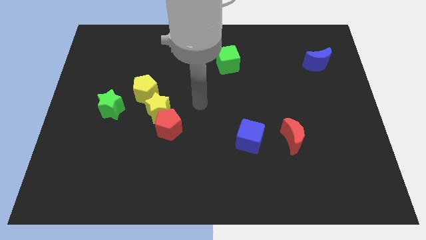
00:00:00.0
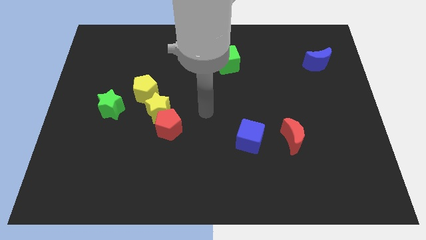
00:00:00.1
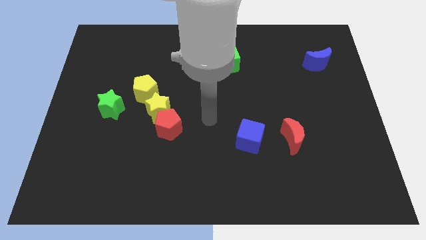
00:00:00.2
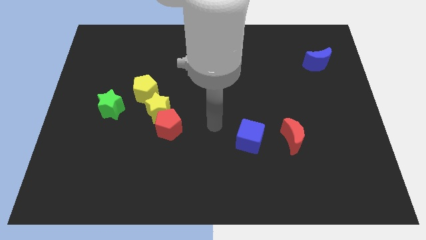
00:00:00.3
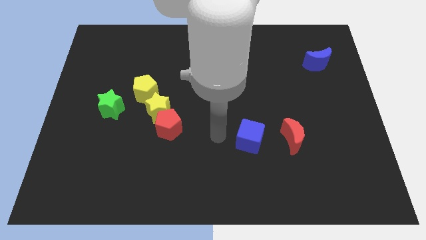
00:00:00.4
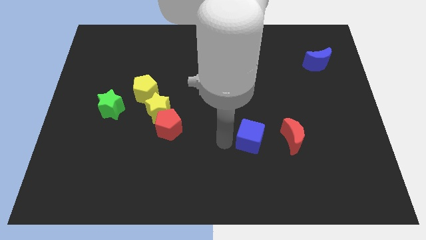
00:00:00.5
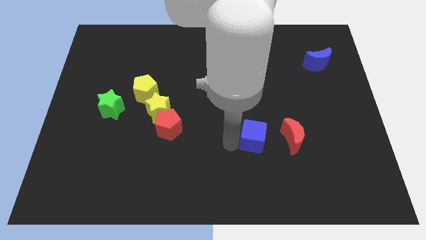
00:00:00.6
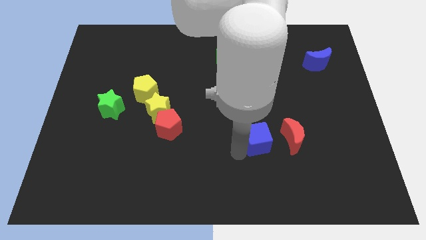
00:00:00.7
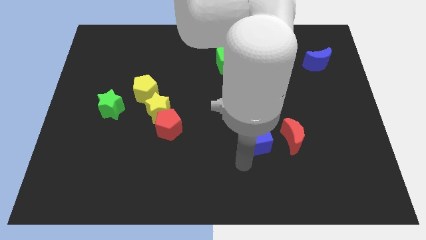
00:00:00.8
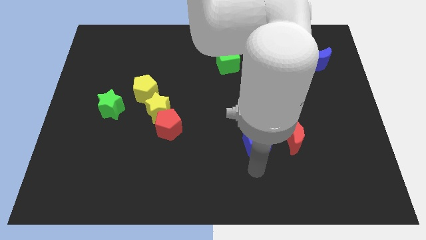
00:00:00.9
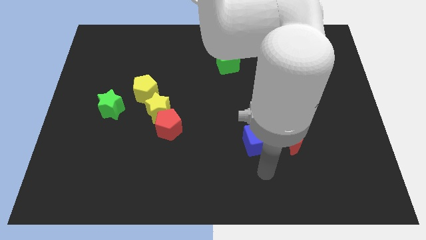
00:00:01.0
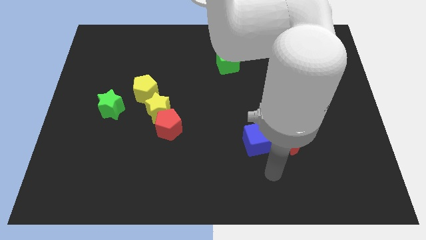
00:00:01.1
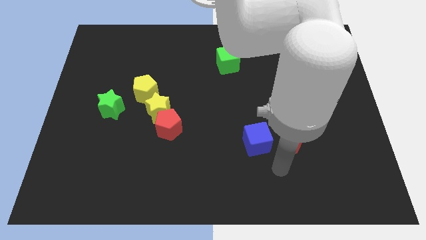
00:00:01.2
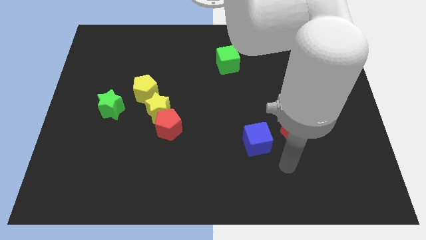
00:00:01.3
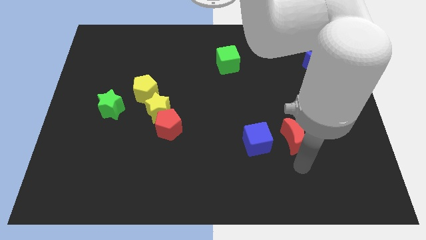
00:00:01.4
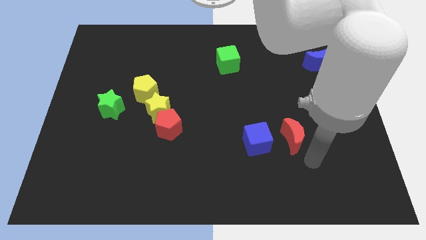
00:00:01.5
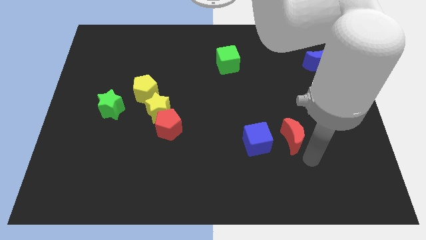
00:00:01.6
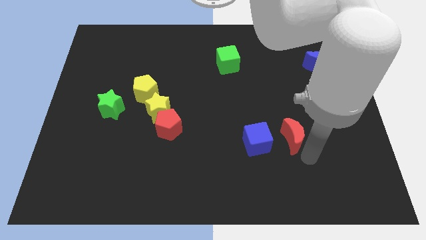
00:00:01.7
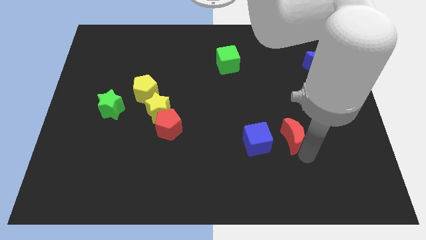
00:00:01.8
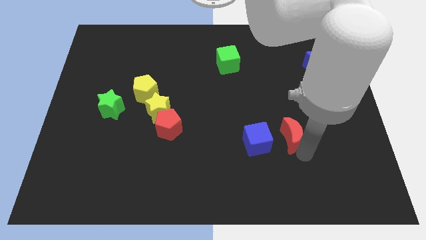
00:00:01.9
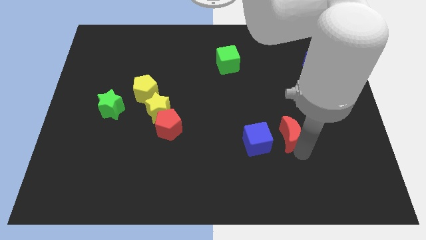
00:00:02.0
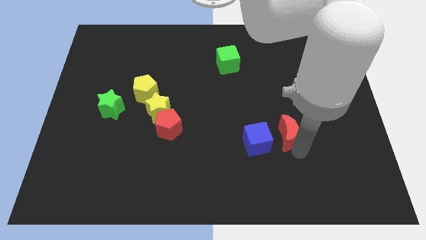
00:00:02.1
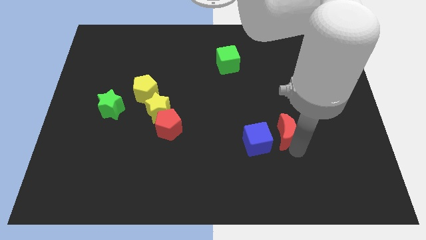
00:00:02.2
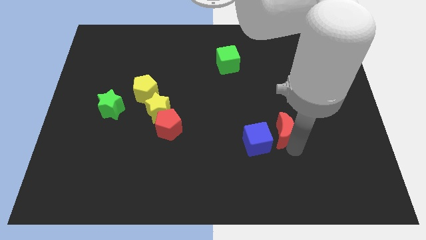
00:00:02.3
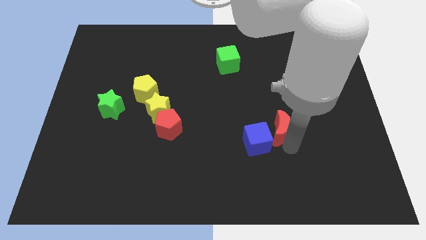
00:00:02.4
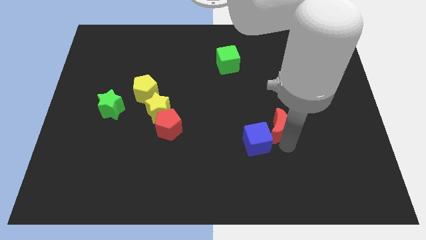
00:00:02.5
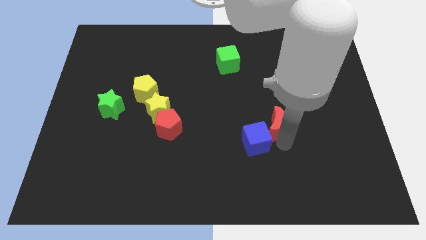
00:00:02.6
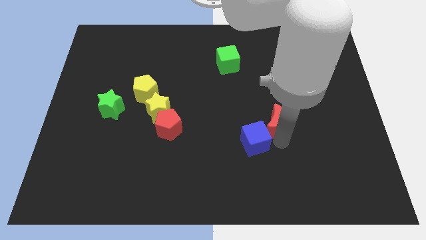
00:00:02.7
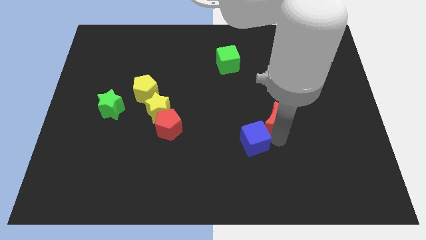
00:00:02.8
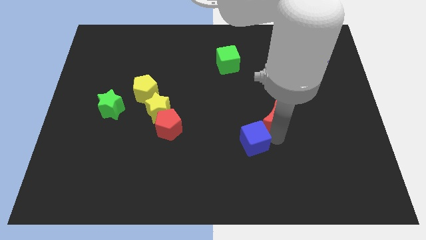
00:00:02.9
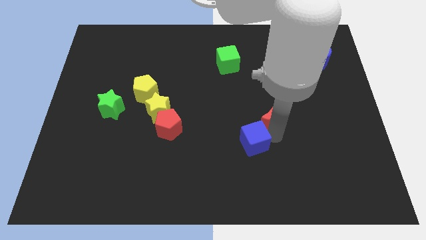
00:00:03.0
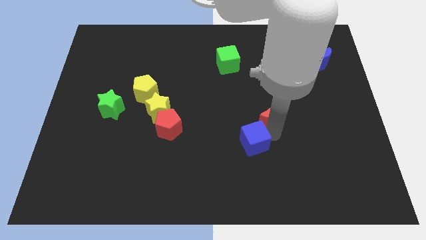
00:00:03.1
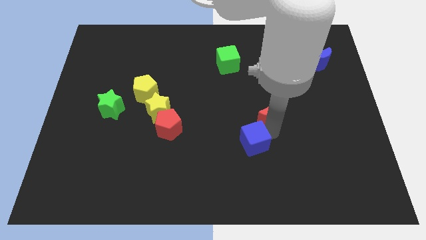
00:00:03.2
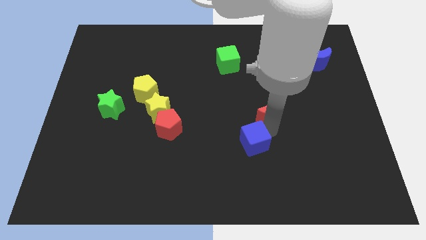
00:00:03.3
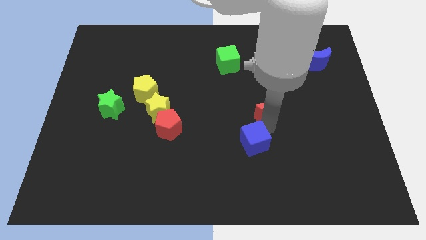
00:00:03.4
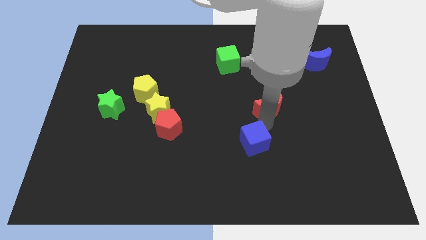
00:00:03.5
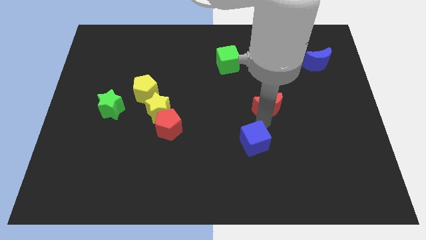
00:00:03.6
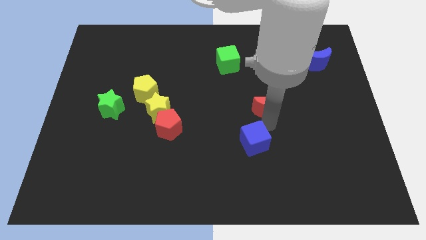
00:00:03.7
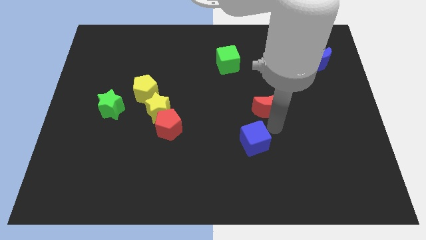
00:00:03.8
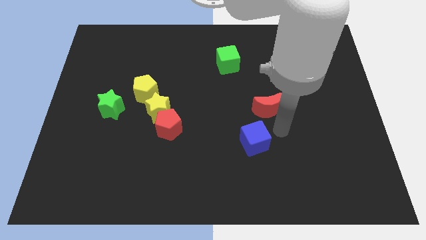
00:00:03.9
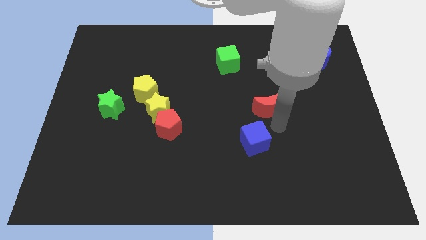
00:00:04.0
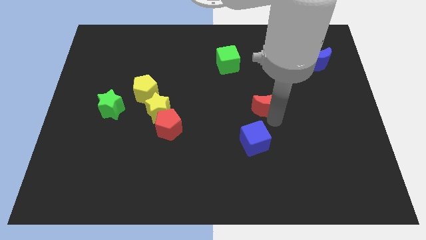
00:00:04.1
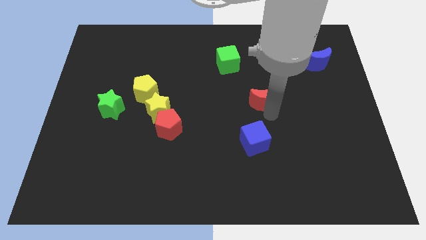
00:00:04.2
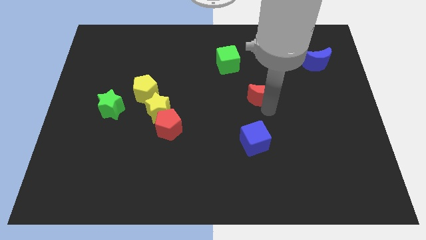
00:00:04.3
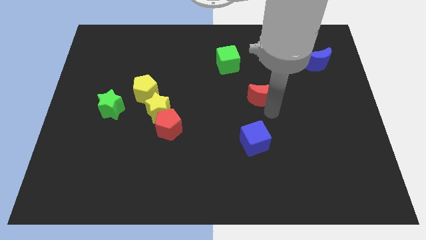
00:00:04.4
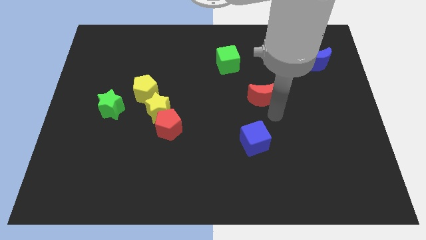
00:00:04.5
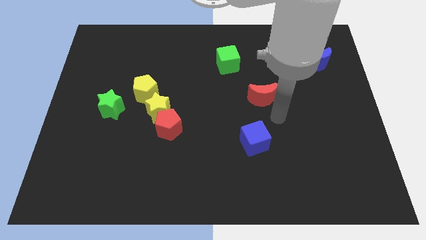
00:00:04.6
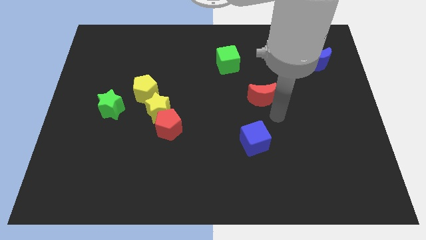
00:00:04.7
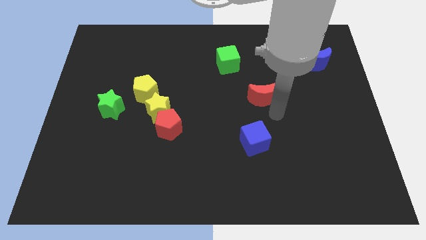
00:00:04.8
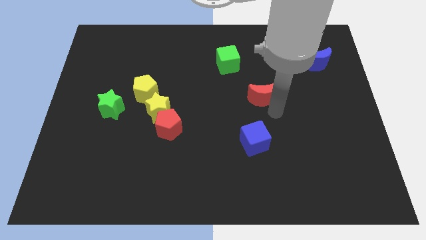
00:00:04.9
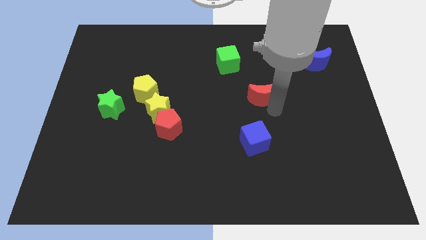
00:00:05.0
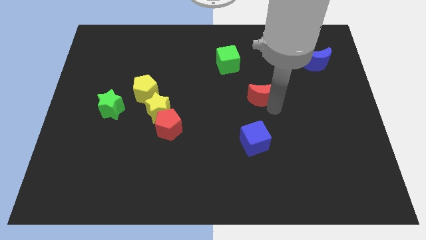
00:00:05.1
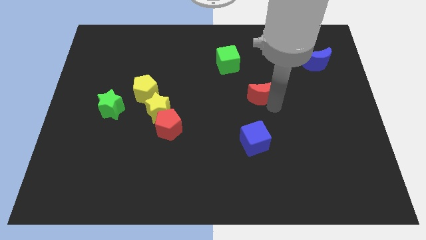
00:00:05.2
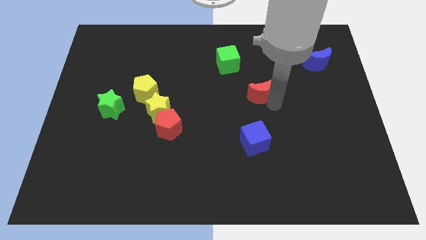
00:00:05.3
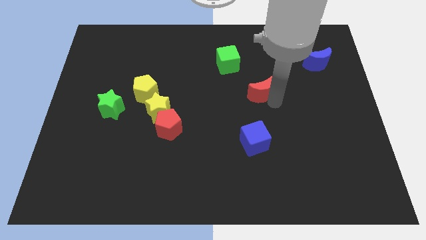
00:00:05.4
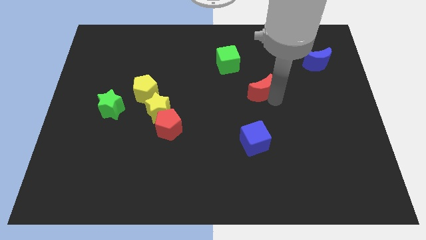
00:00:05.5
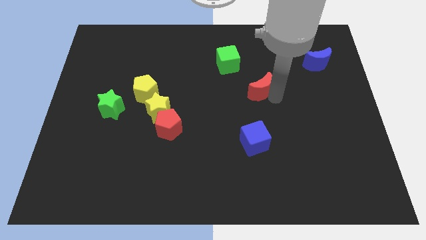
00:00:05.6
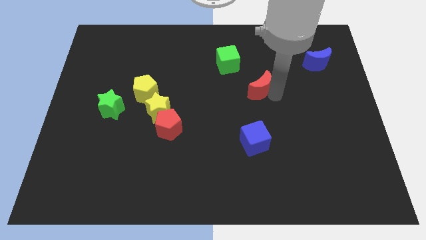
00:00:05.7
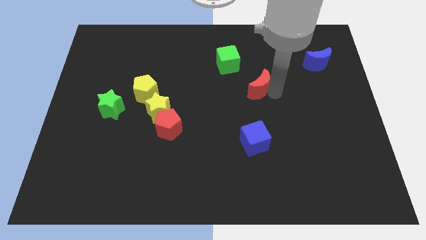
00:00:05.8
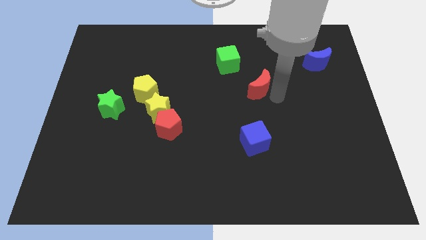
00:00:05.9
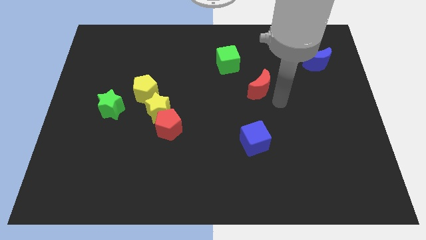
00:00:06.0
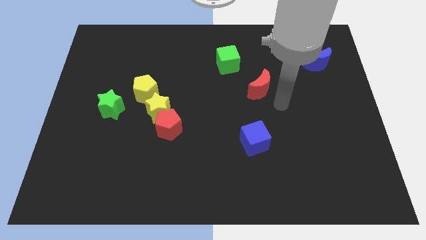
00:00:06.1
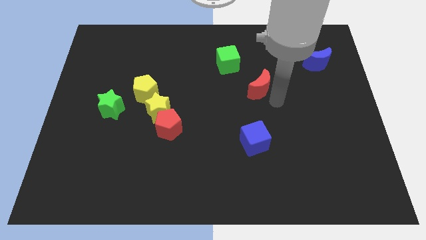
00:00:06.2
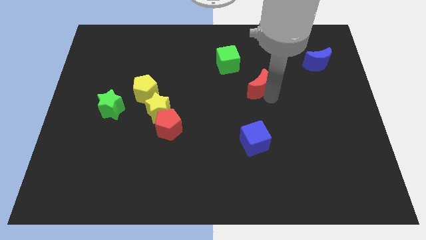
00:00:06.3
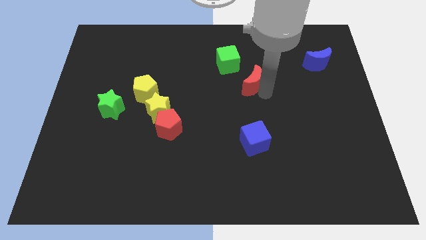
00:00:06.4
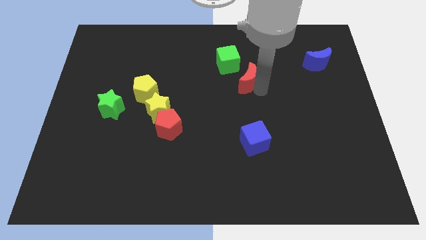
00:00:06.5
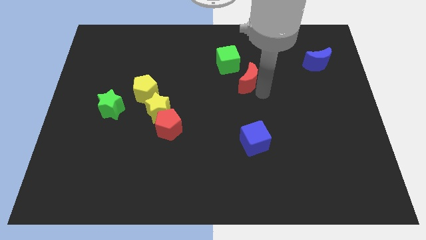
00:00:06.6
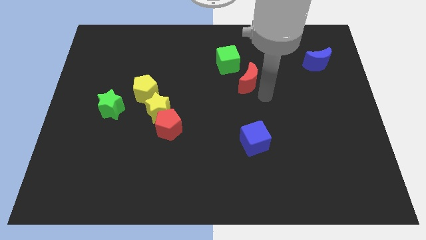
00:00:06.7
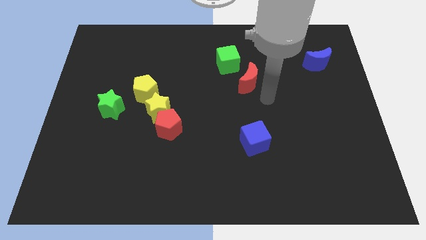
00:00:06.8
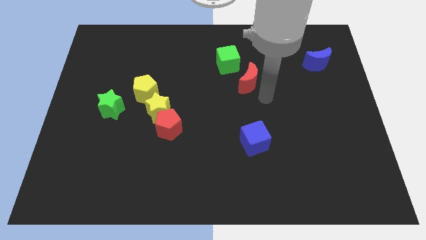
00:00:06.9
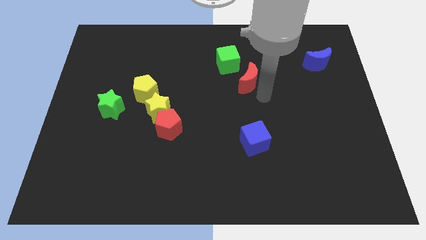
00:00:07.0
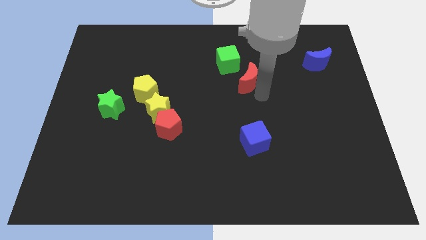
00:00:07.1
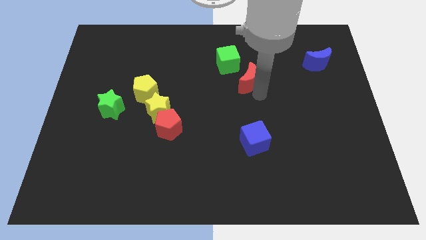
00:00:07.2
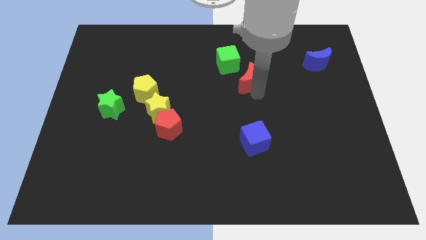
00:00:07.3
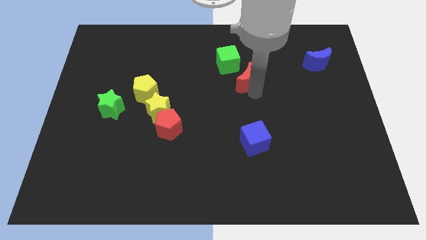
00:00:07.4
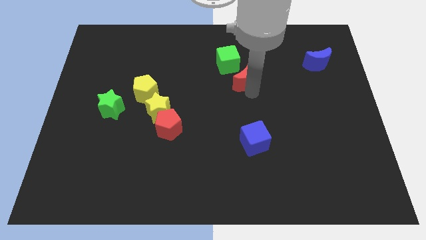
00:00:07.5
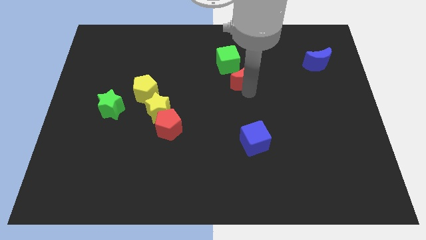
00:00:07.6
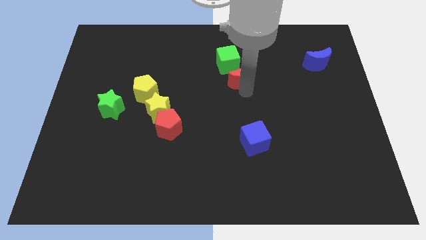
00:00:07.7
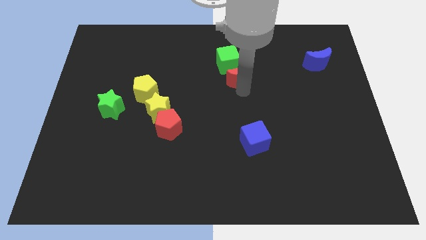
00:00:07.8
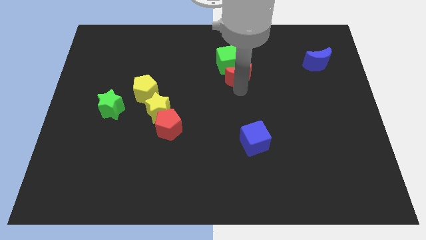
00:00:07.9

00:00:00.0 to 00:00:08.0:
put the red moon next to the green cube
